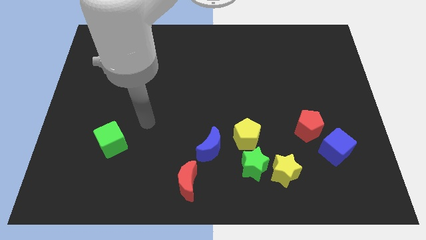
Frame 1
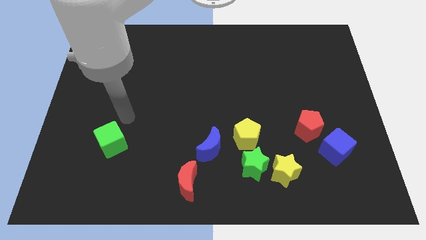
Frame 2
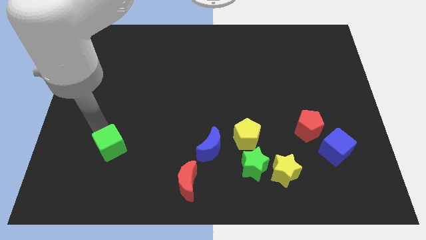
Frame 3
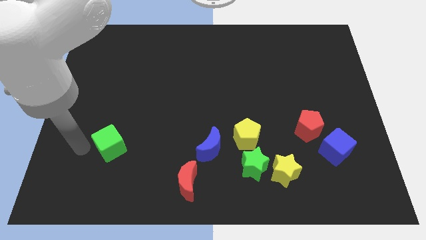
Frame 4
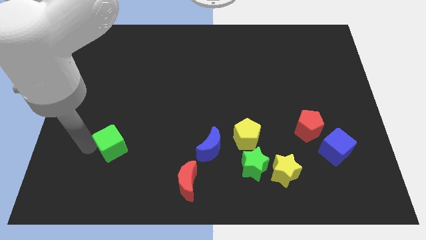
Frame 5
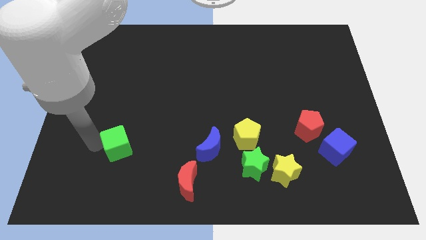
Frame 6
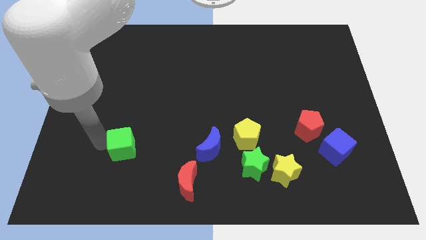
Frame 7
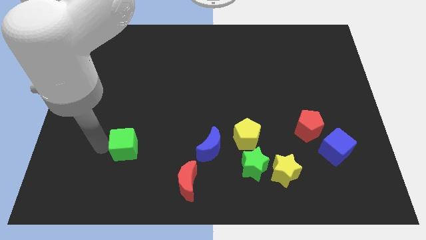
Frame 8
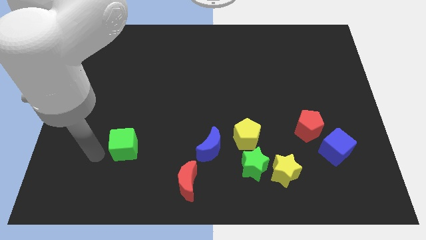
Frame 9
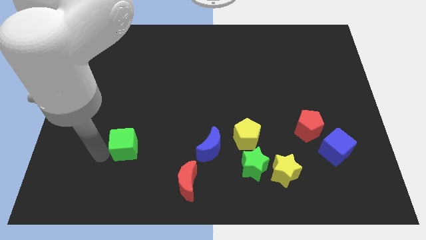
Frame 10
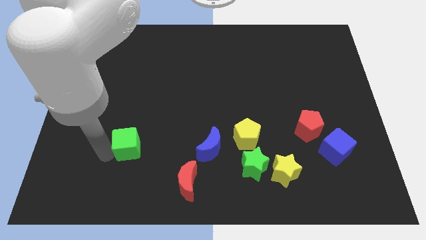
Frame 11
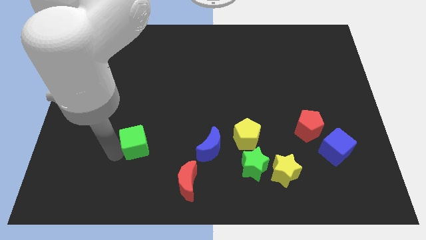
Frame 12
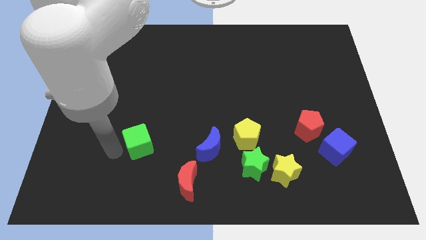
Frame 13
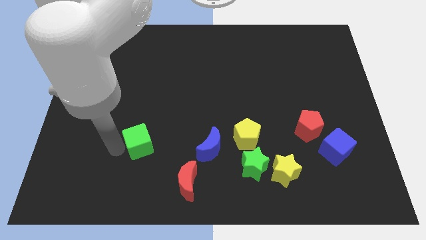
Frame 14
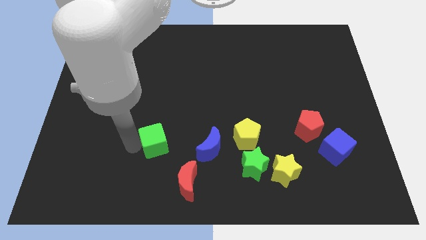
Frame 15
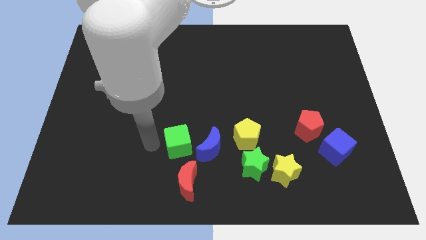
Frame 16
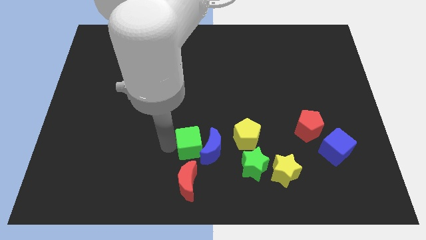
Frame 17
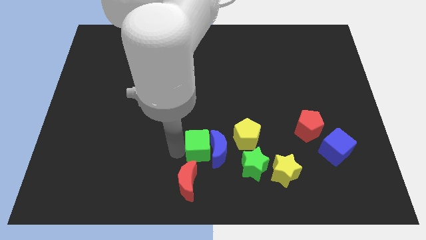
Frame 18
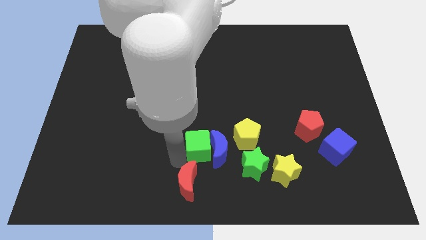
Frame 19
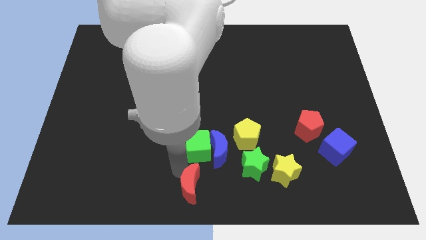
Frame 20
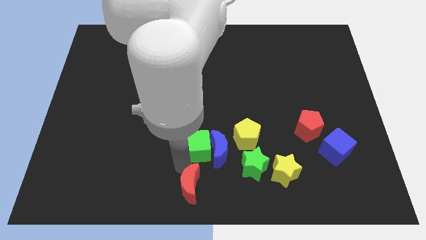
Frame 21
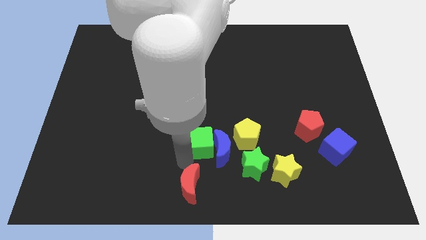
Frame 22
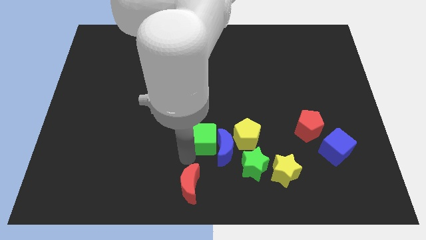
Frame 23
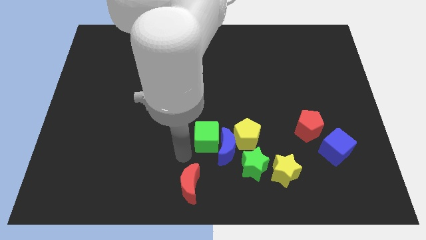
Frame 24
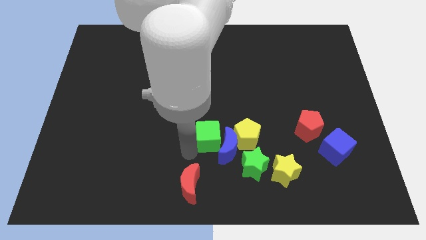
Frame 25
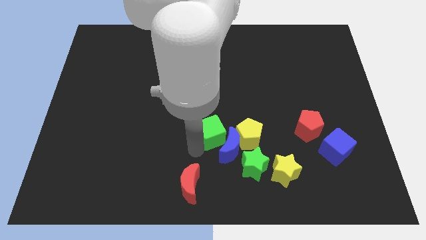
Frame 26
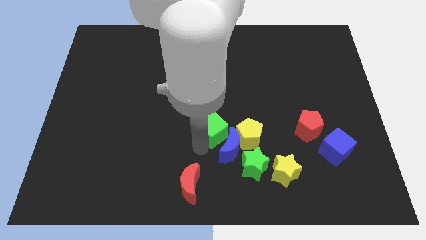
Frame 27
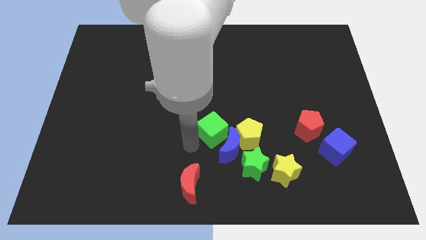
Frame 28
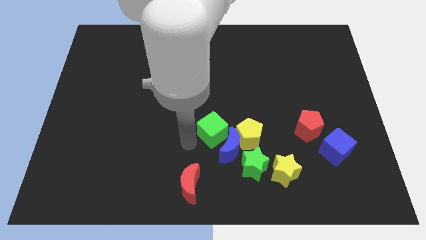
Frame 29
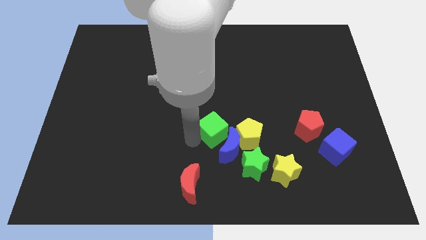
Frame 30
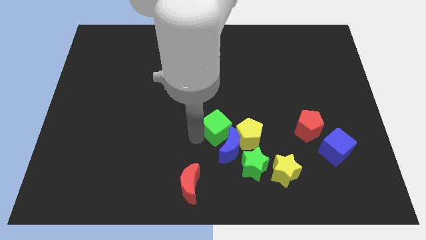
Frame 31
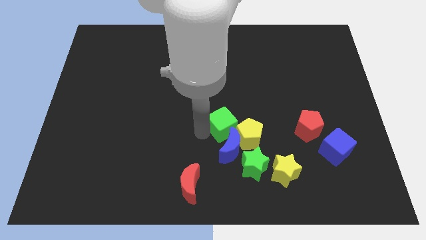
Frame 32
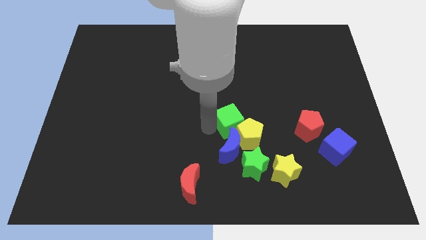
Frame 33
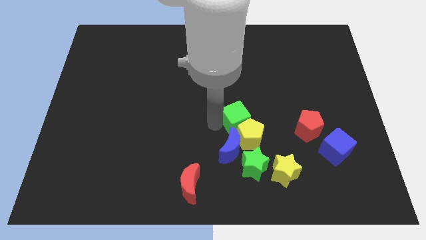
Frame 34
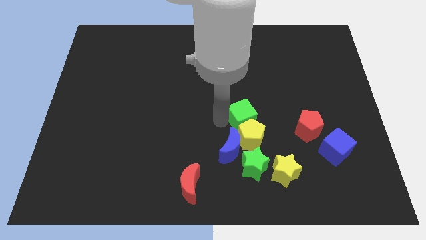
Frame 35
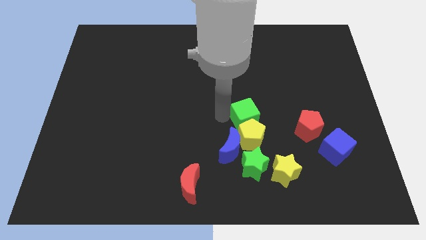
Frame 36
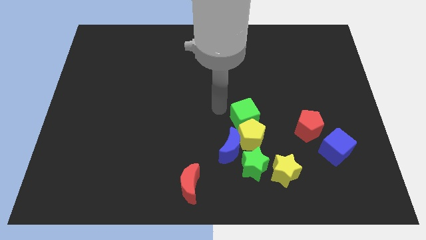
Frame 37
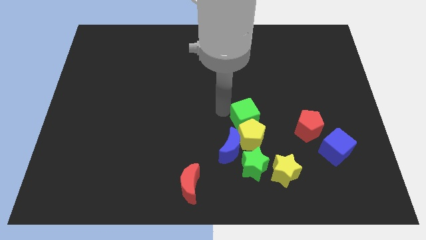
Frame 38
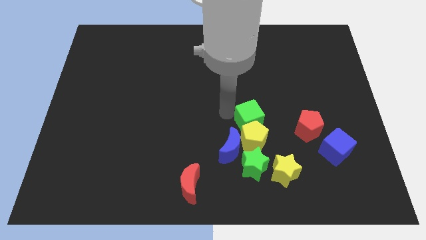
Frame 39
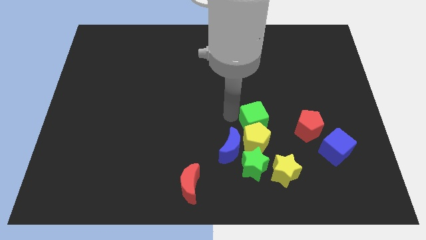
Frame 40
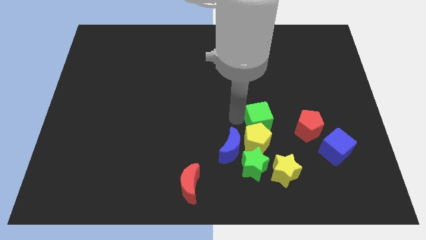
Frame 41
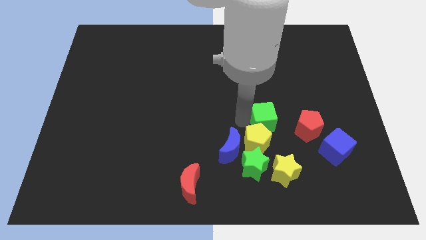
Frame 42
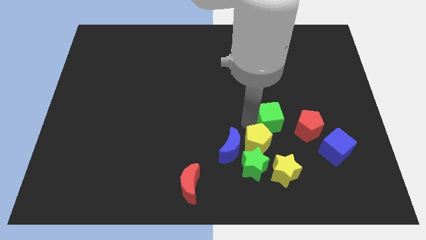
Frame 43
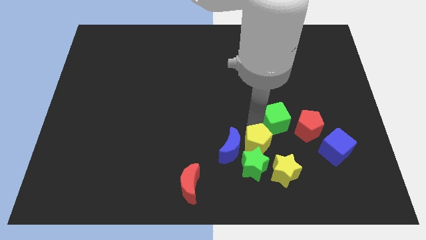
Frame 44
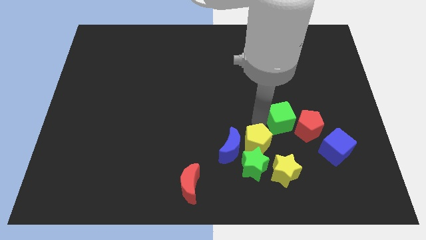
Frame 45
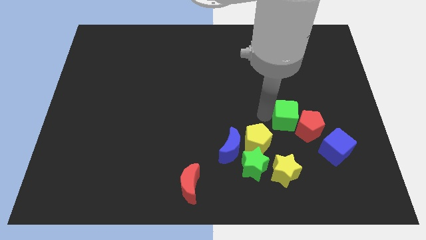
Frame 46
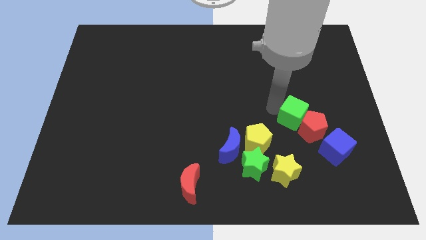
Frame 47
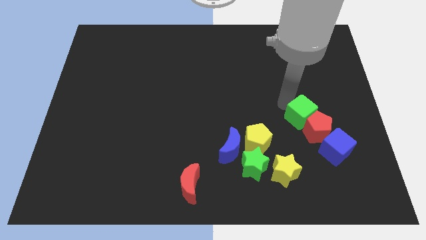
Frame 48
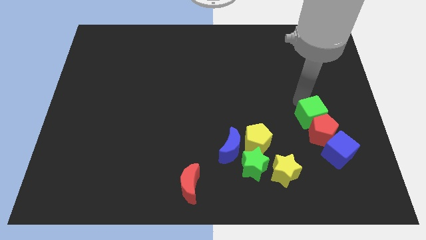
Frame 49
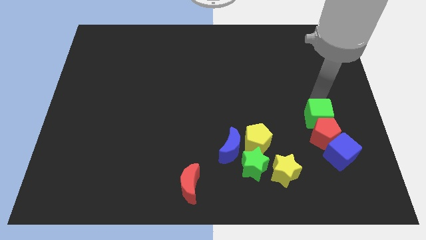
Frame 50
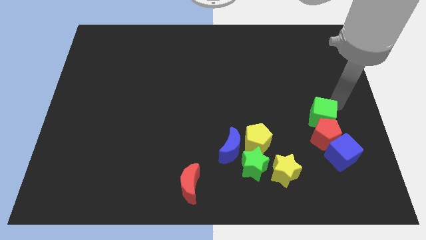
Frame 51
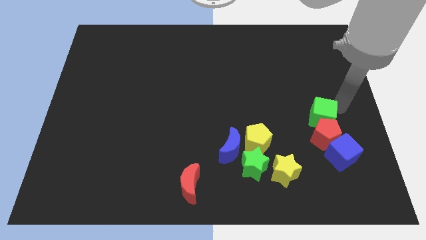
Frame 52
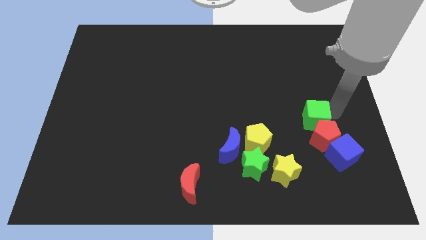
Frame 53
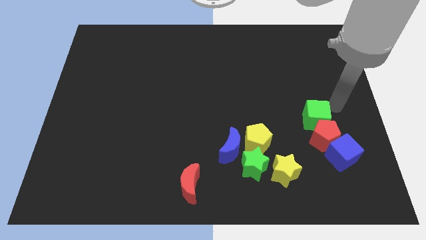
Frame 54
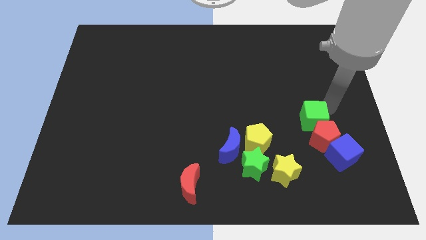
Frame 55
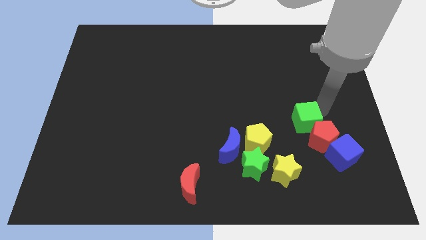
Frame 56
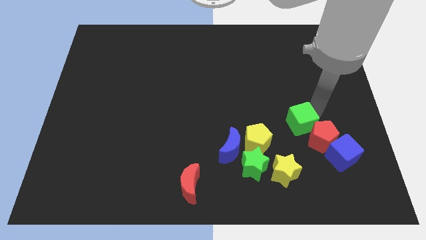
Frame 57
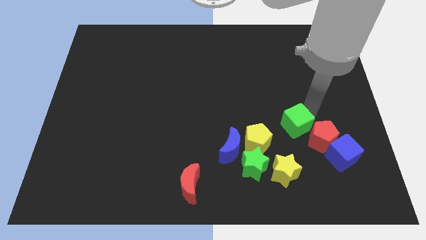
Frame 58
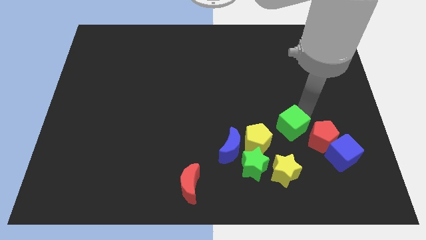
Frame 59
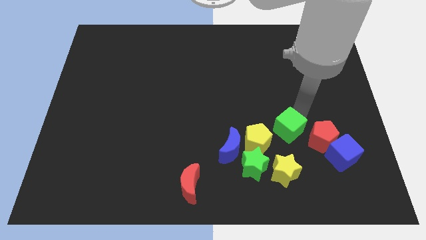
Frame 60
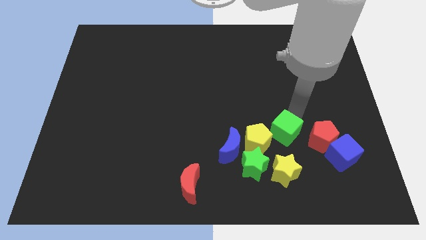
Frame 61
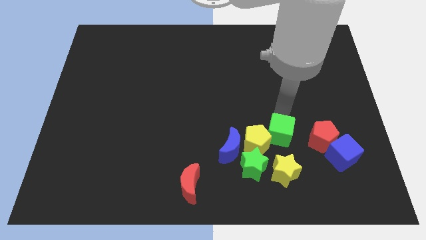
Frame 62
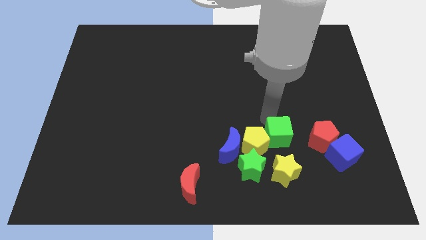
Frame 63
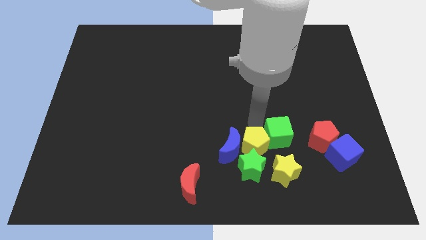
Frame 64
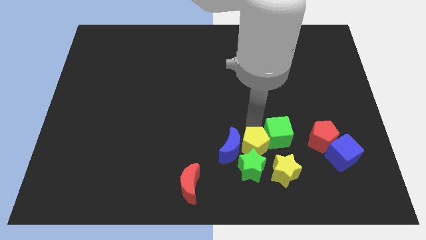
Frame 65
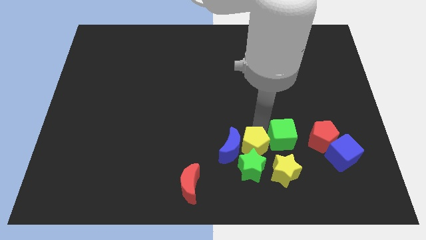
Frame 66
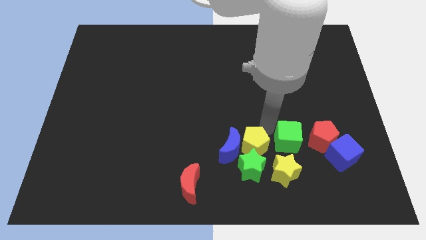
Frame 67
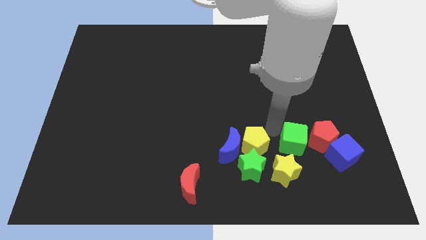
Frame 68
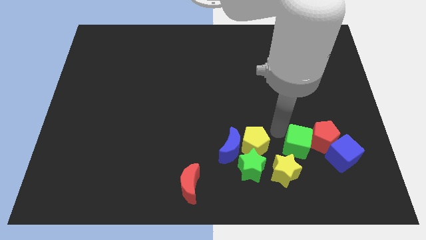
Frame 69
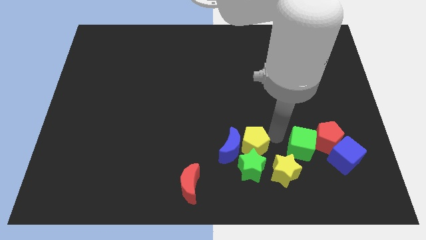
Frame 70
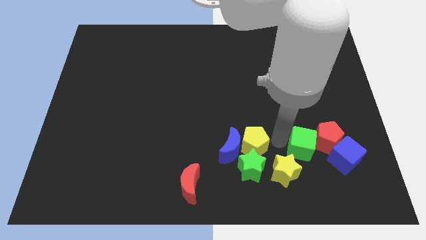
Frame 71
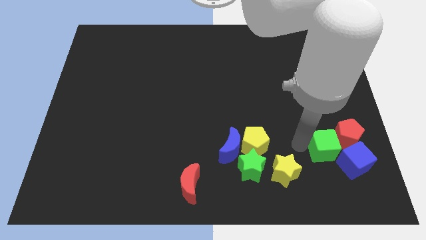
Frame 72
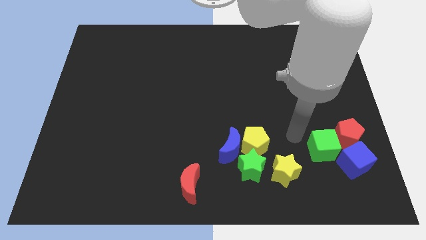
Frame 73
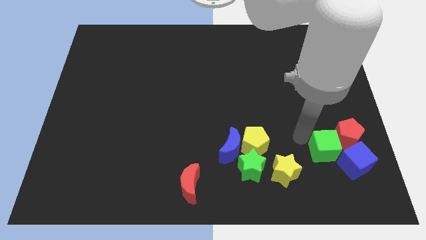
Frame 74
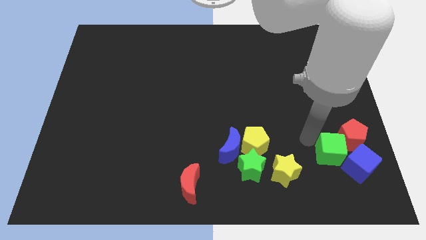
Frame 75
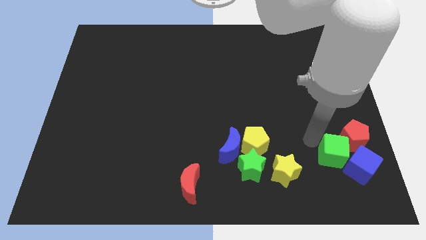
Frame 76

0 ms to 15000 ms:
push the green cube to the blue cube
